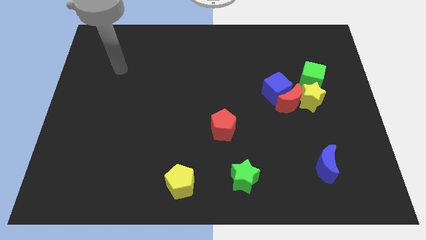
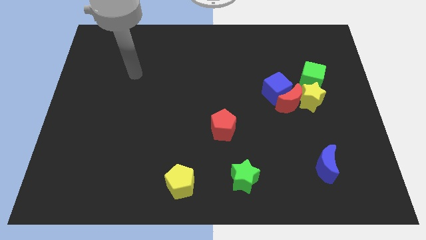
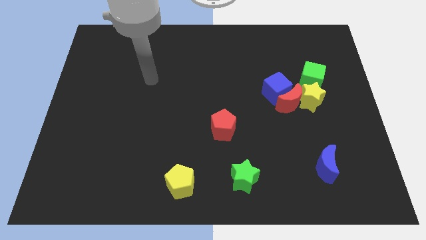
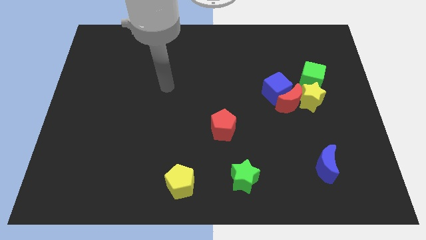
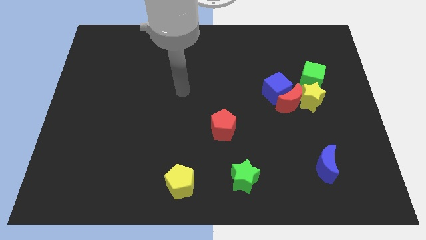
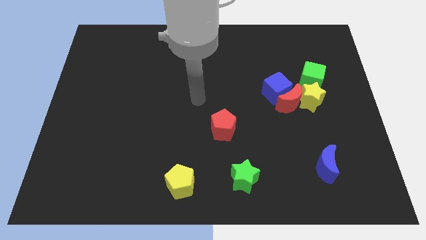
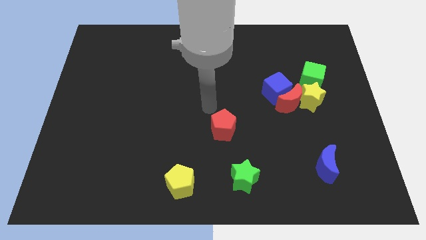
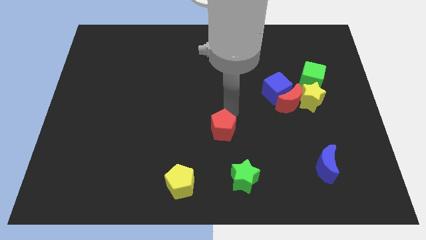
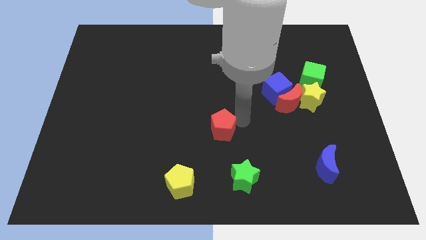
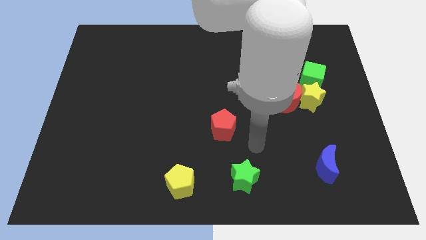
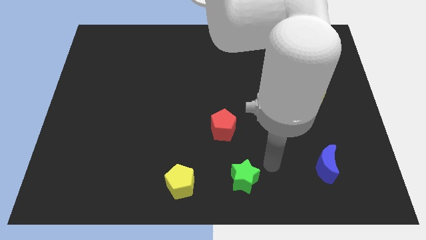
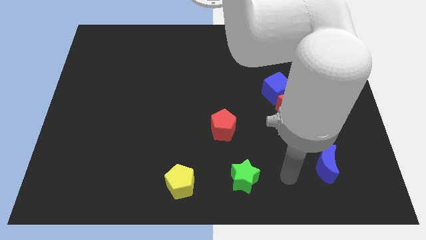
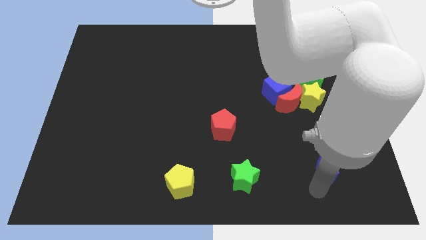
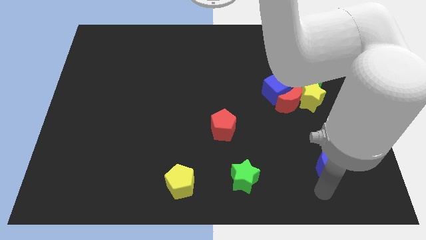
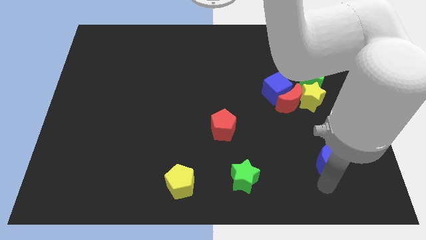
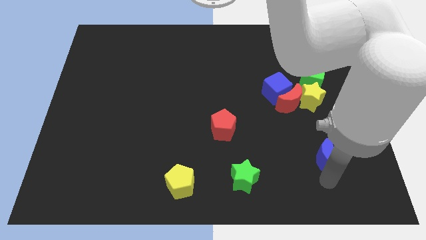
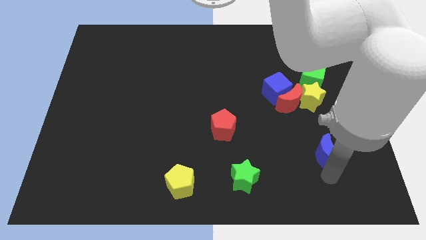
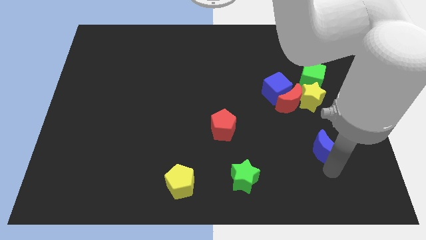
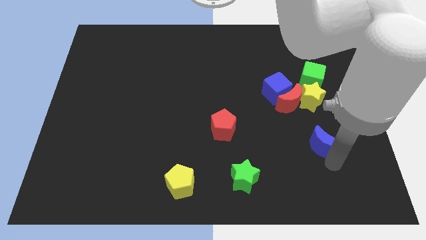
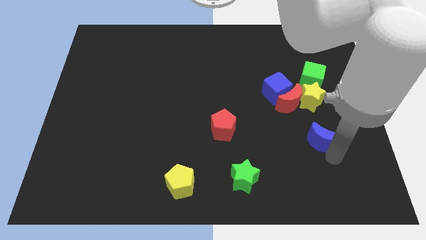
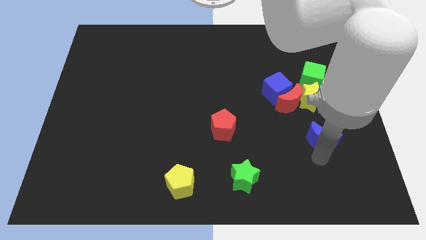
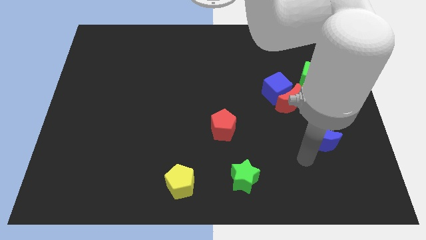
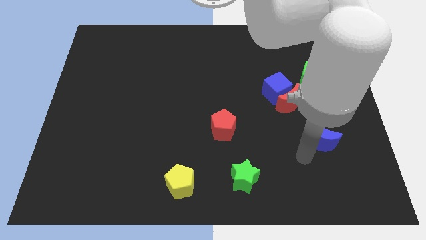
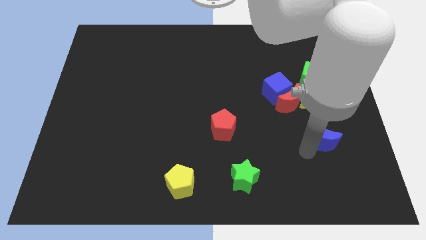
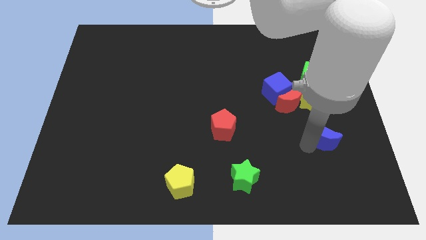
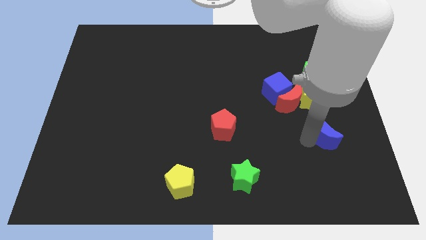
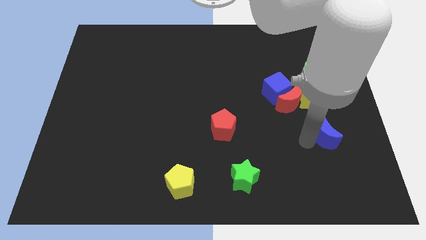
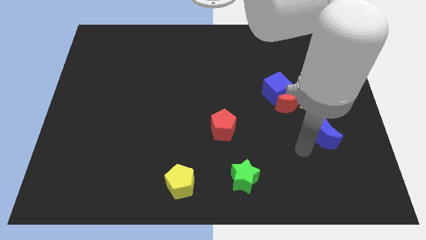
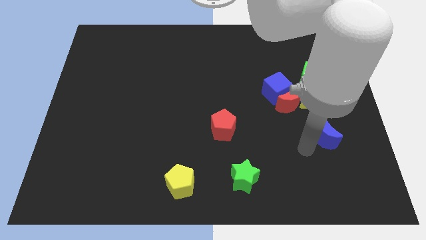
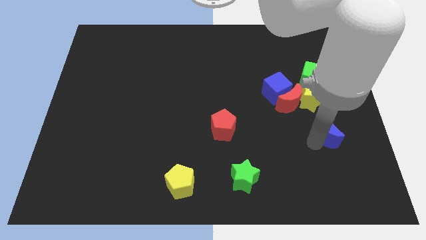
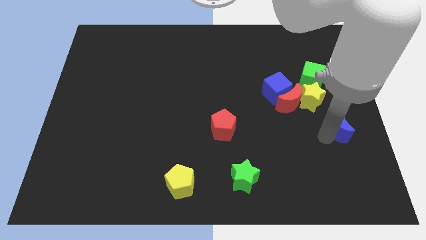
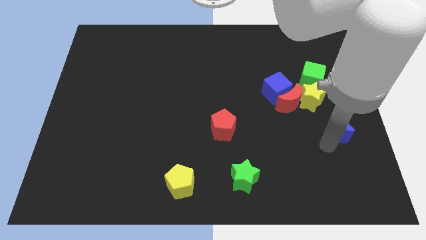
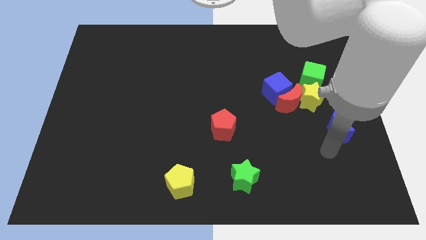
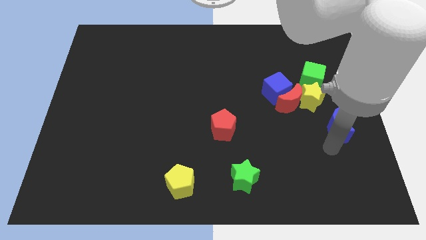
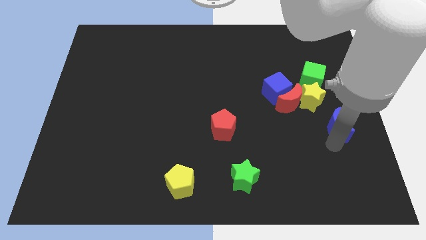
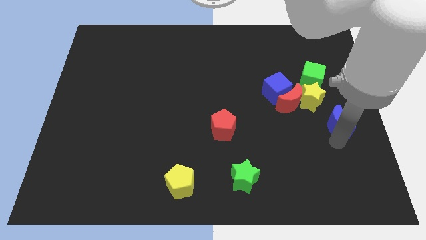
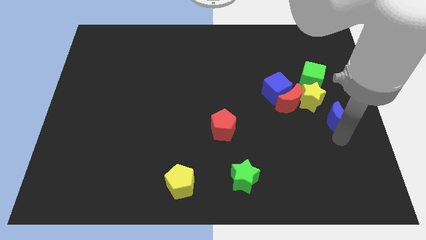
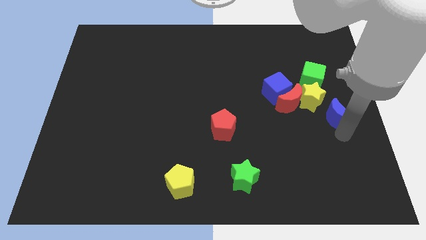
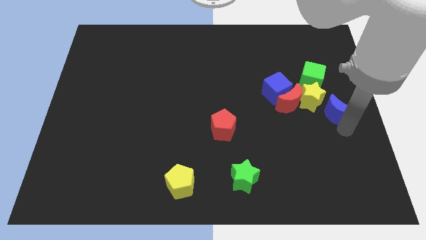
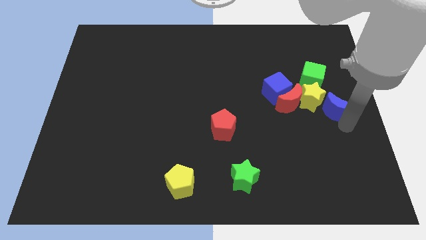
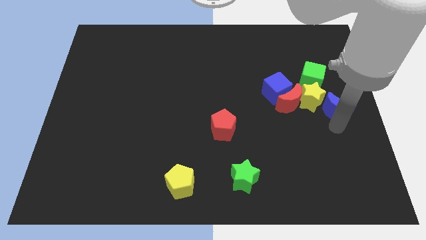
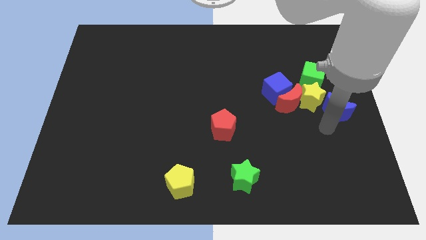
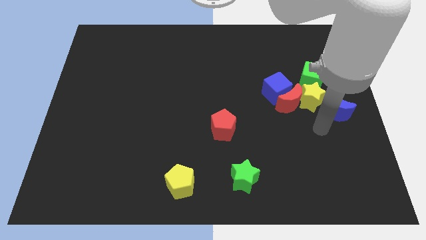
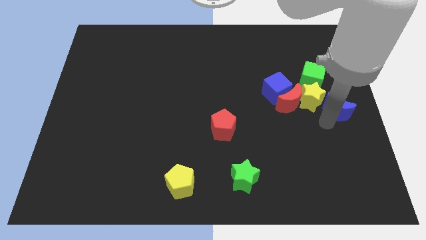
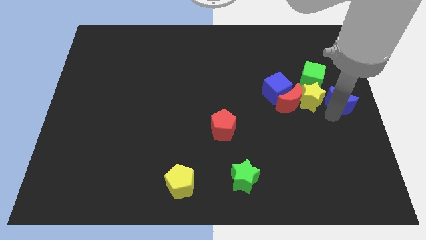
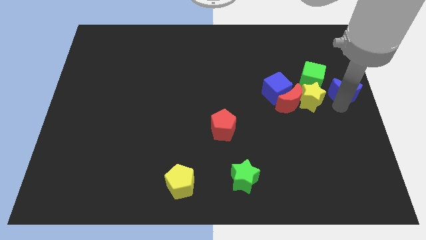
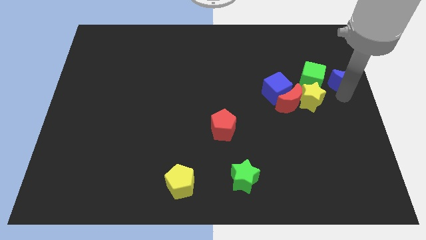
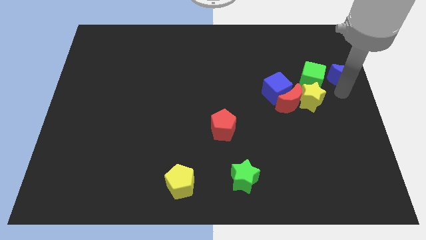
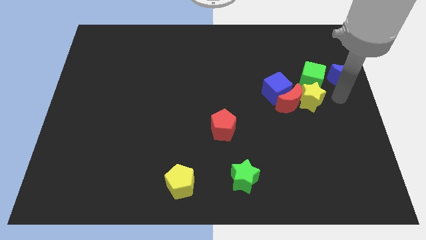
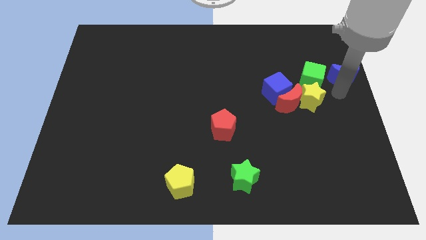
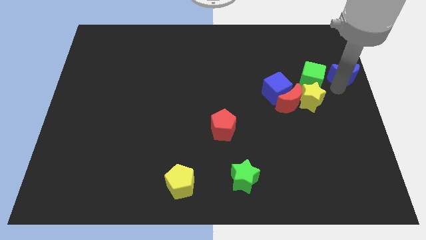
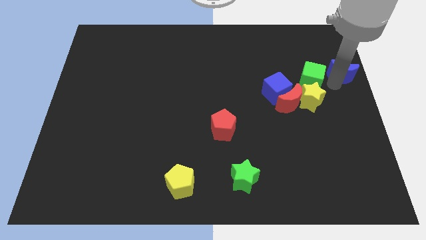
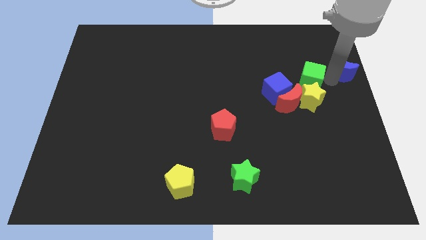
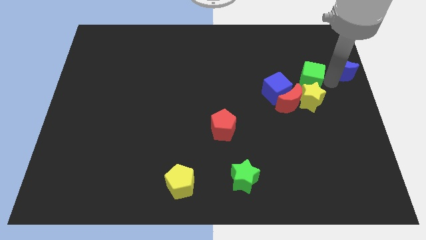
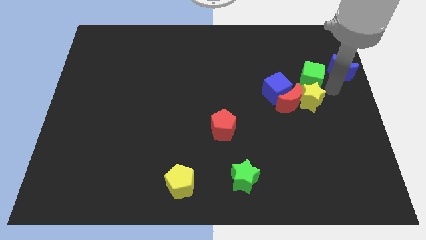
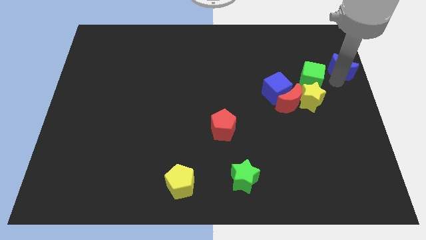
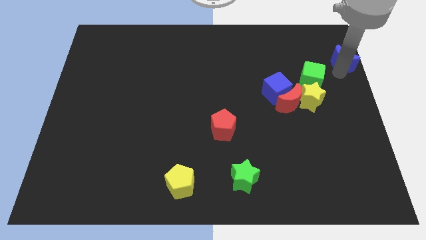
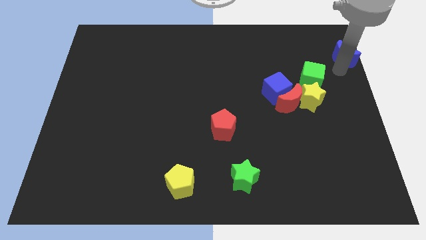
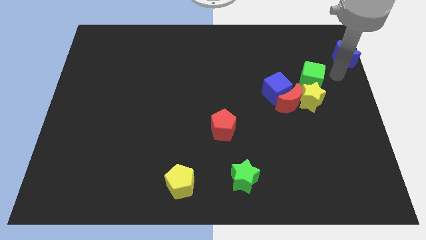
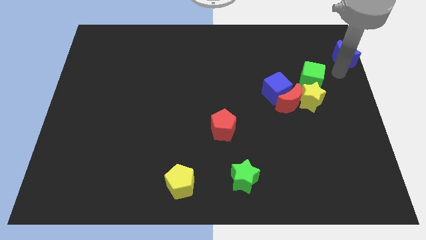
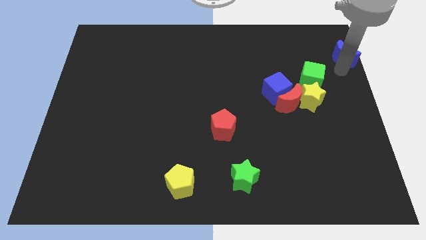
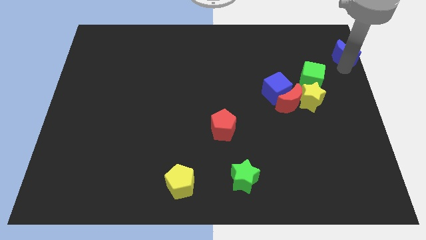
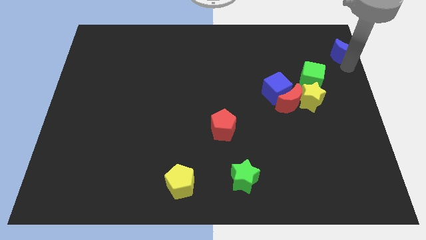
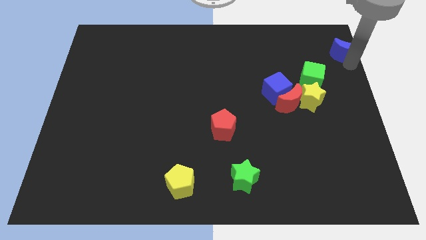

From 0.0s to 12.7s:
put the blue moon to the top right of the board
